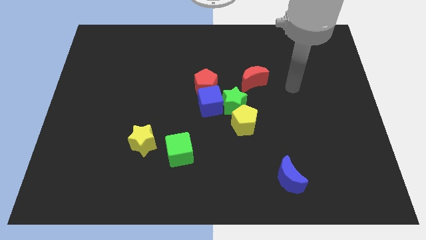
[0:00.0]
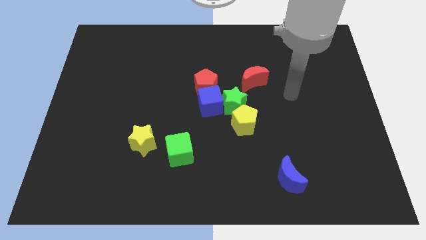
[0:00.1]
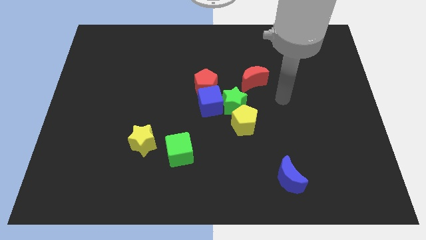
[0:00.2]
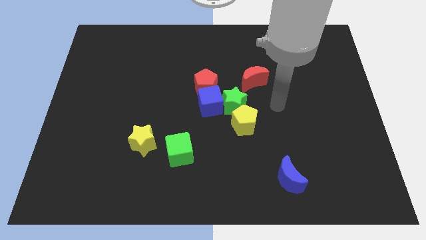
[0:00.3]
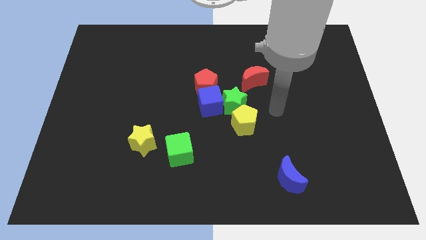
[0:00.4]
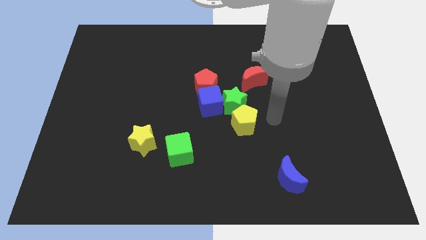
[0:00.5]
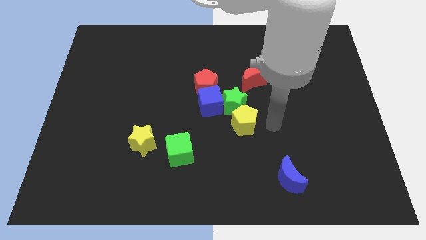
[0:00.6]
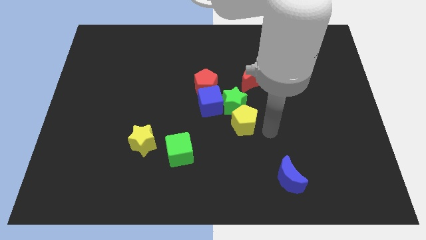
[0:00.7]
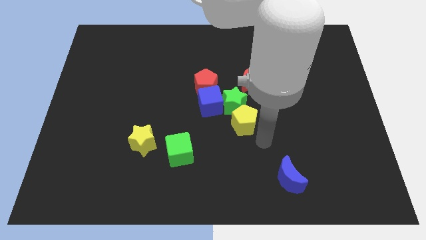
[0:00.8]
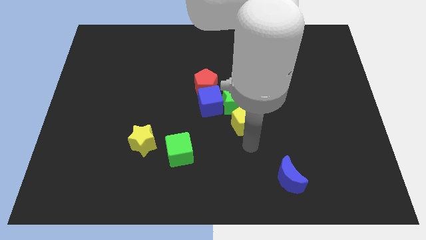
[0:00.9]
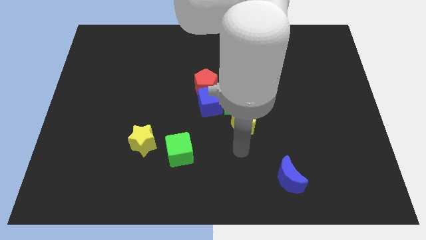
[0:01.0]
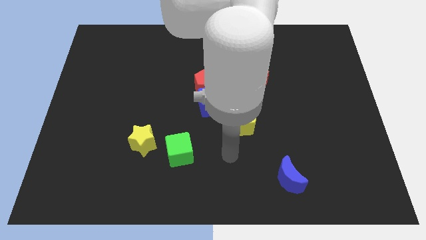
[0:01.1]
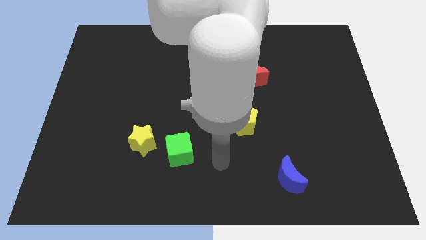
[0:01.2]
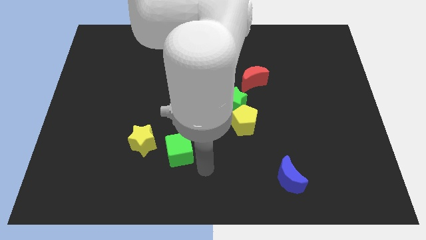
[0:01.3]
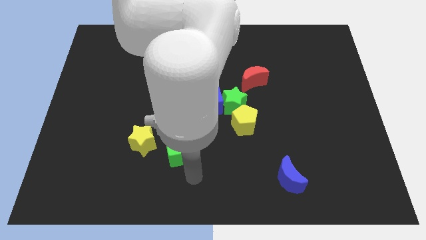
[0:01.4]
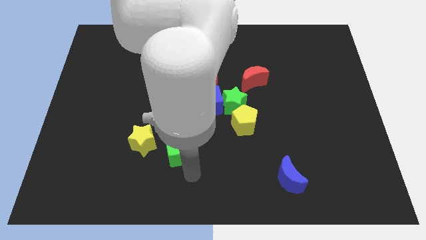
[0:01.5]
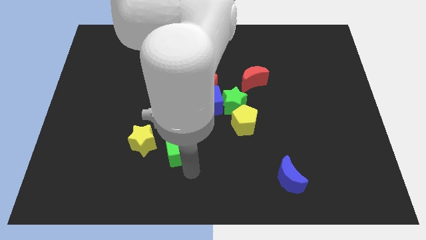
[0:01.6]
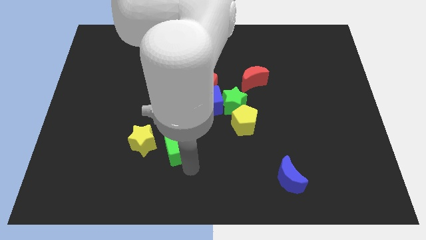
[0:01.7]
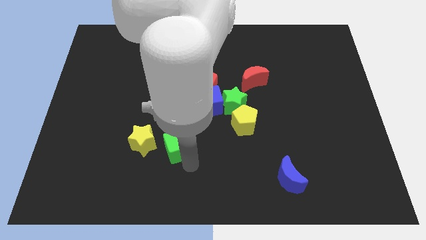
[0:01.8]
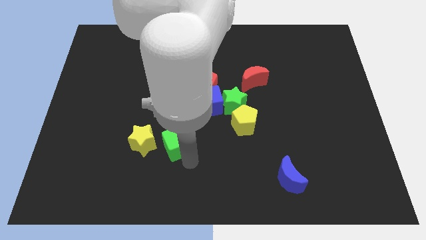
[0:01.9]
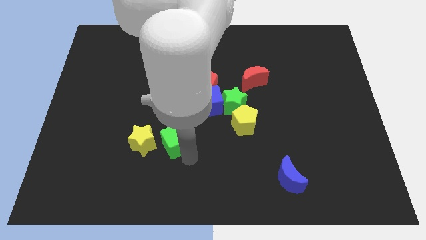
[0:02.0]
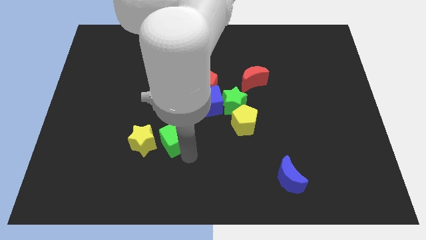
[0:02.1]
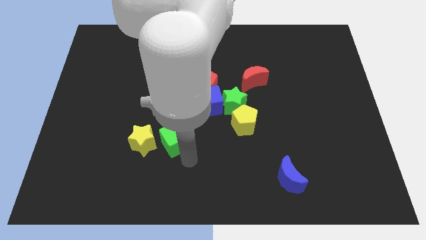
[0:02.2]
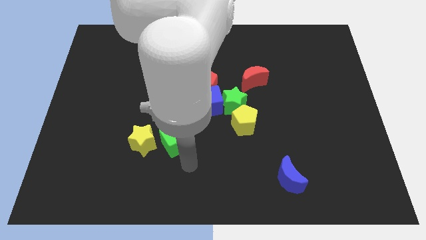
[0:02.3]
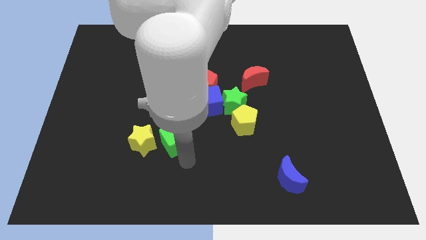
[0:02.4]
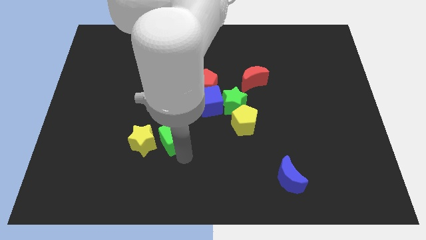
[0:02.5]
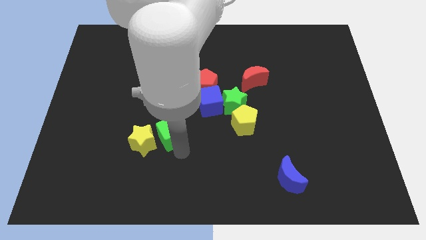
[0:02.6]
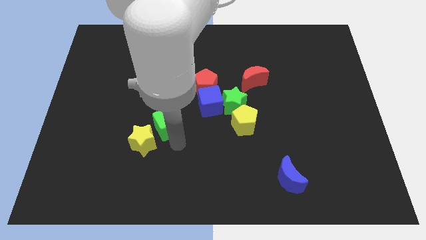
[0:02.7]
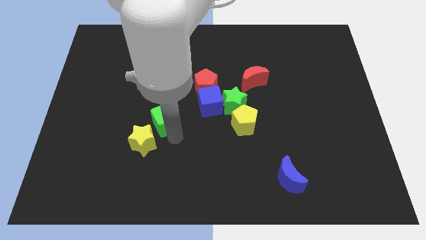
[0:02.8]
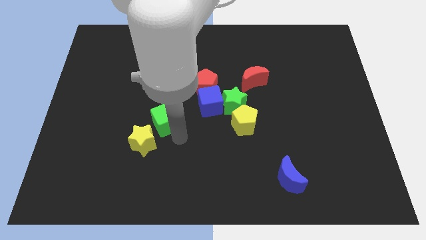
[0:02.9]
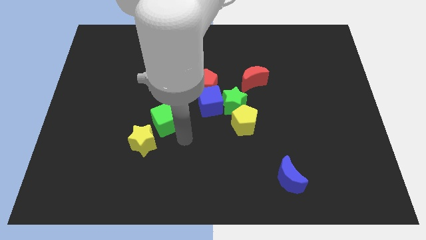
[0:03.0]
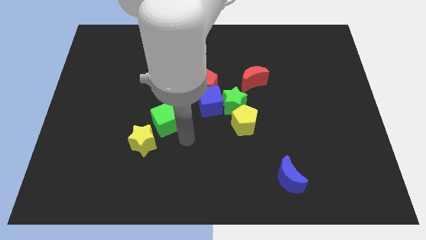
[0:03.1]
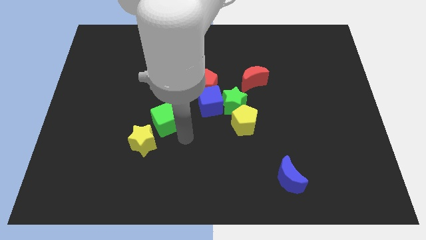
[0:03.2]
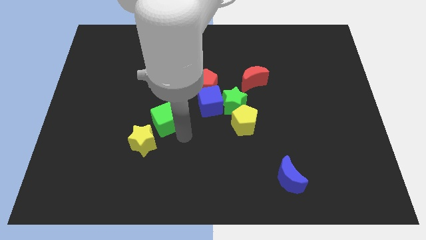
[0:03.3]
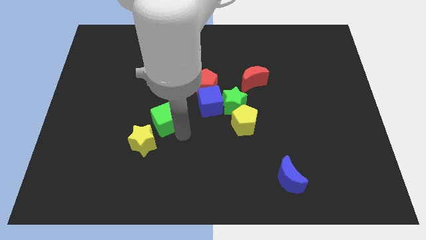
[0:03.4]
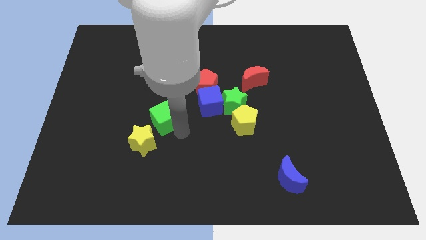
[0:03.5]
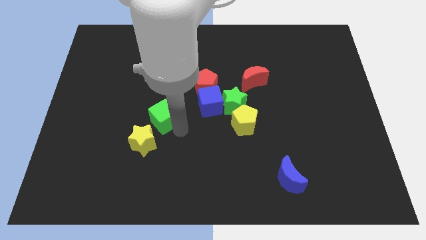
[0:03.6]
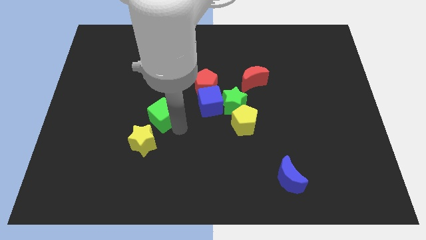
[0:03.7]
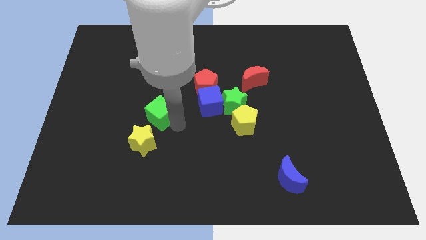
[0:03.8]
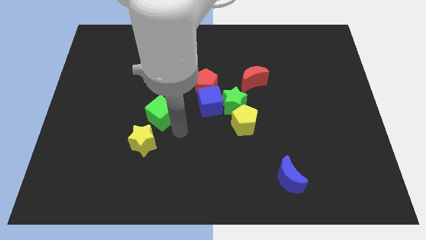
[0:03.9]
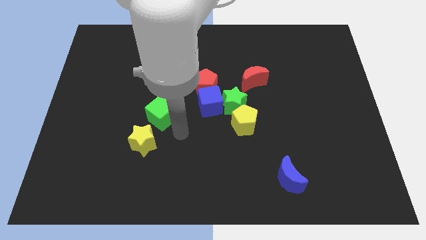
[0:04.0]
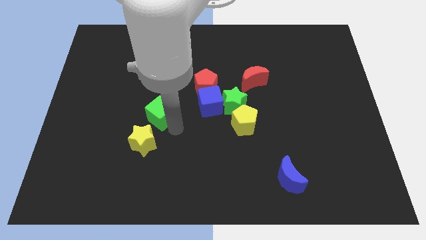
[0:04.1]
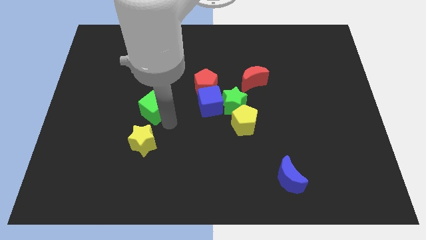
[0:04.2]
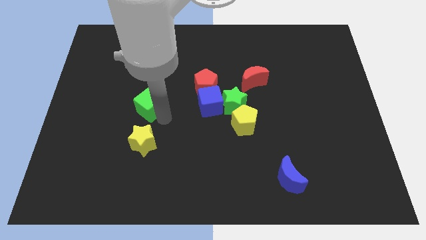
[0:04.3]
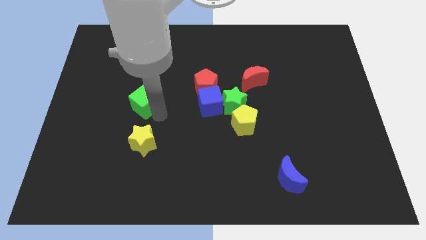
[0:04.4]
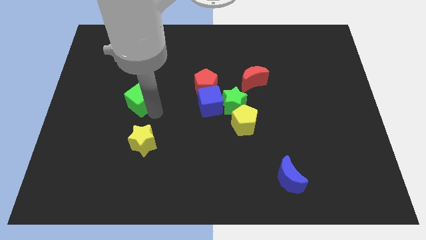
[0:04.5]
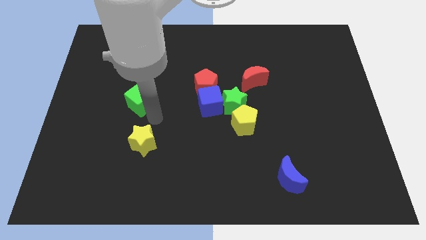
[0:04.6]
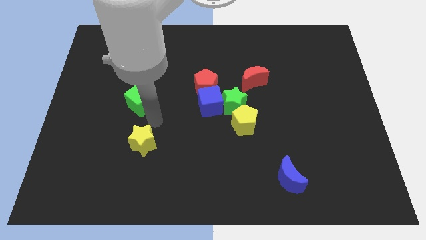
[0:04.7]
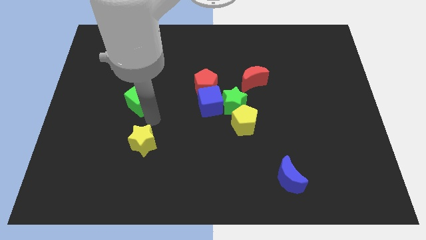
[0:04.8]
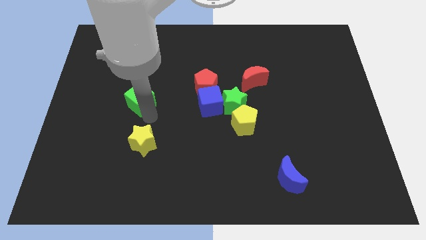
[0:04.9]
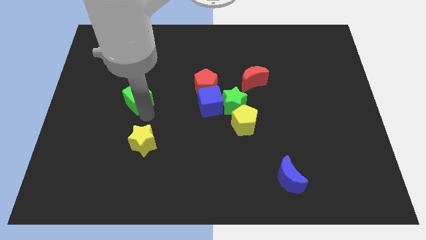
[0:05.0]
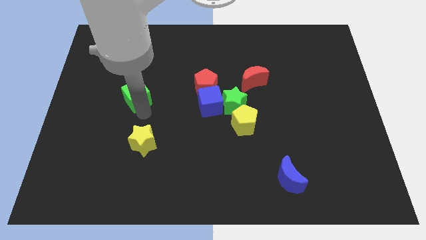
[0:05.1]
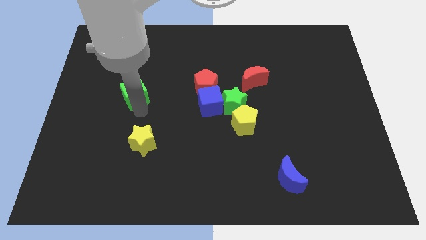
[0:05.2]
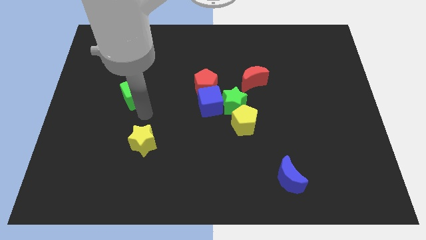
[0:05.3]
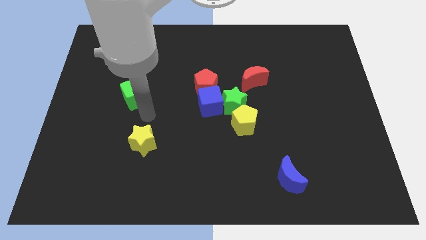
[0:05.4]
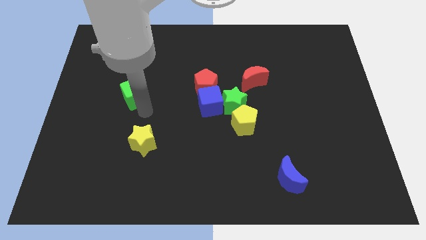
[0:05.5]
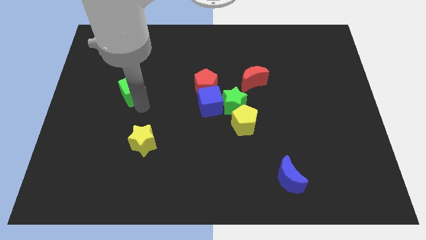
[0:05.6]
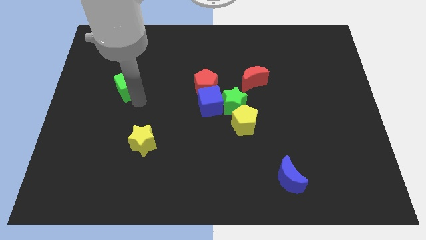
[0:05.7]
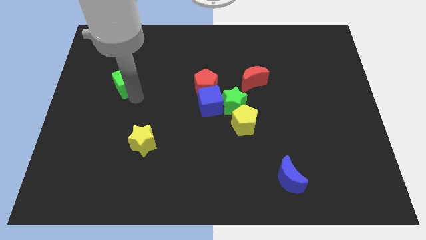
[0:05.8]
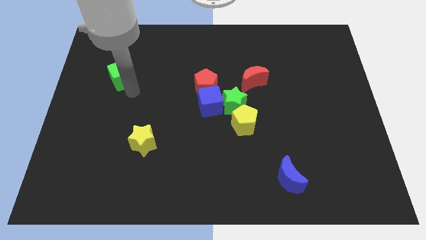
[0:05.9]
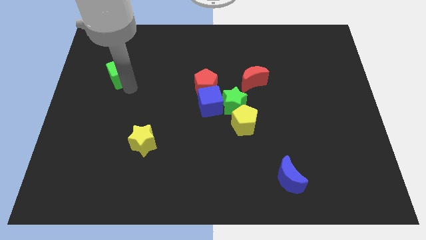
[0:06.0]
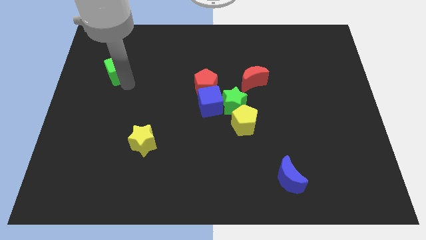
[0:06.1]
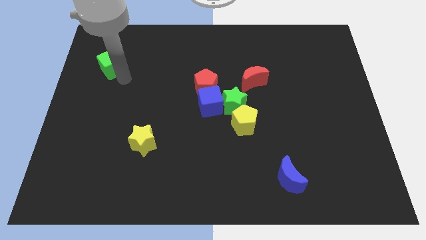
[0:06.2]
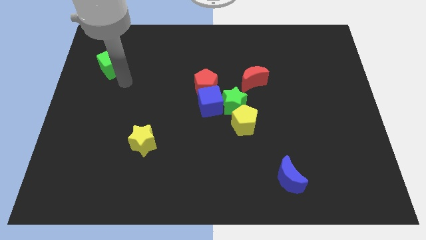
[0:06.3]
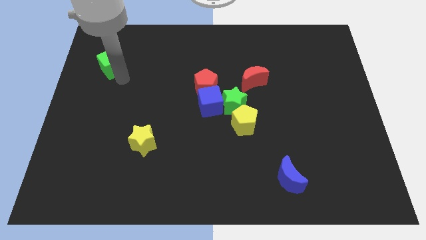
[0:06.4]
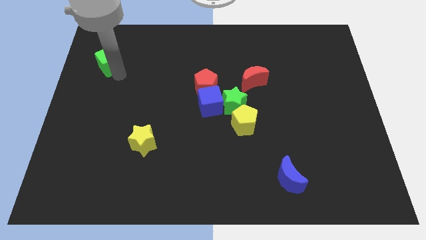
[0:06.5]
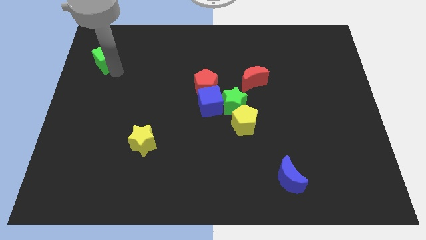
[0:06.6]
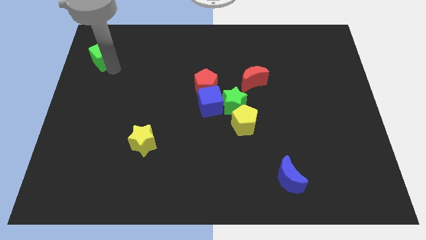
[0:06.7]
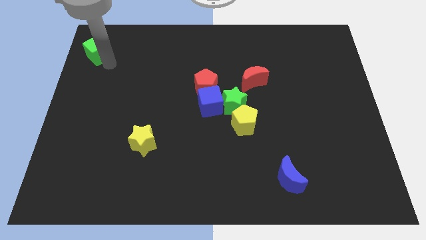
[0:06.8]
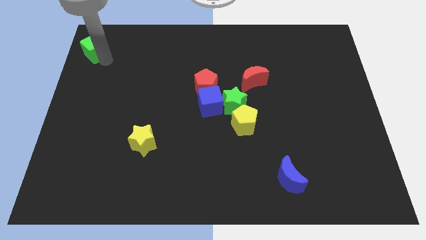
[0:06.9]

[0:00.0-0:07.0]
put the green cube to the top left corner
